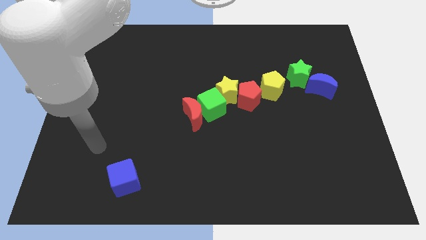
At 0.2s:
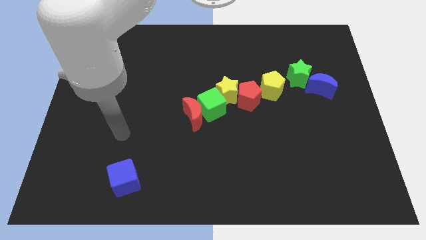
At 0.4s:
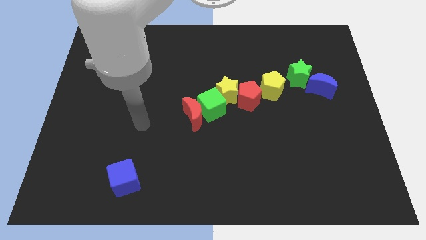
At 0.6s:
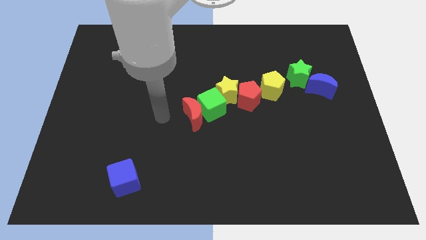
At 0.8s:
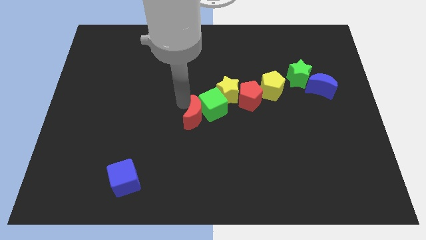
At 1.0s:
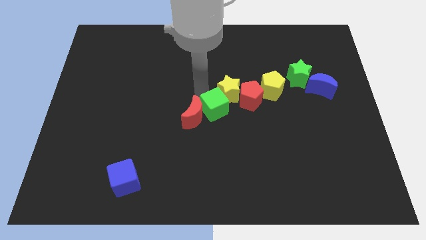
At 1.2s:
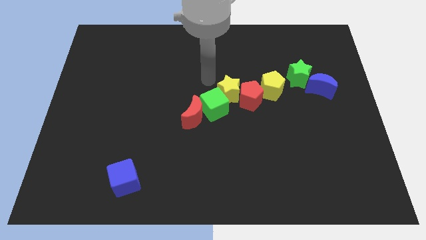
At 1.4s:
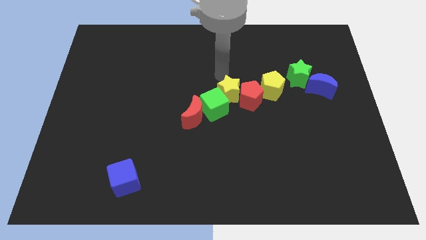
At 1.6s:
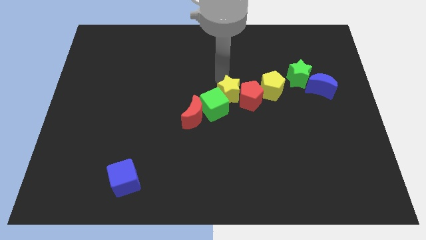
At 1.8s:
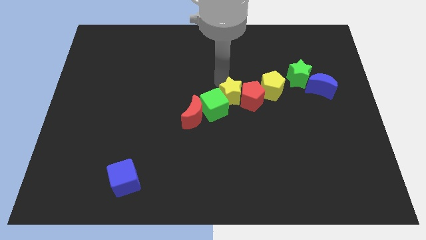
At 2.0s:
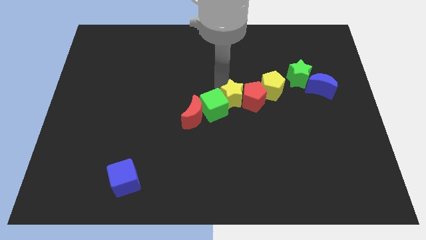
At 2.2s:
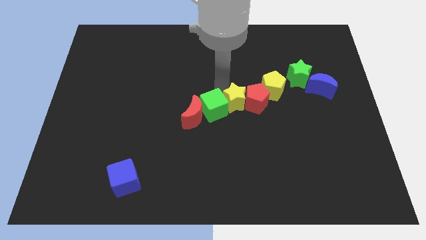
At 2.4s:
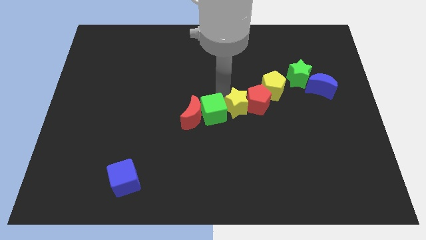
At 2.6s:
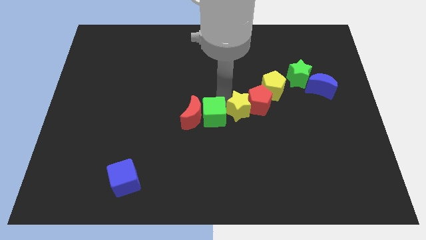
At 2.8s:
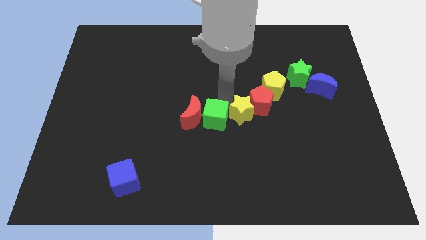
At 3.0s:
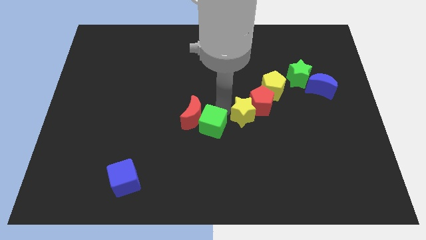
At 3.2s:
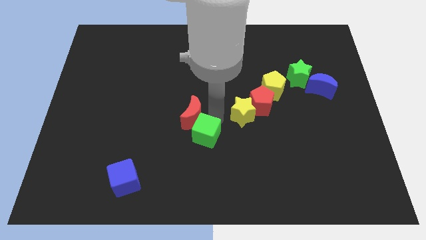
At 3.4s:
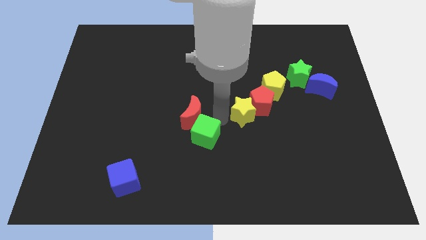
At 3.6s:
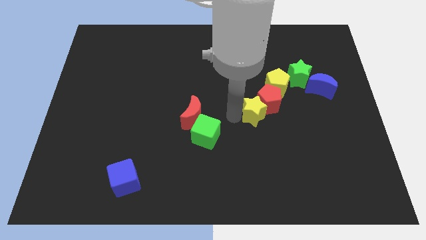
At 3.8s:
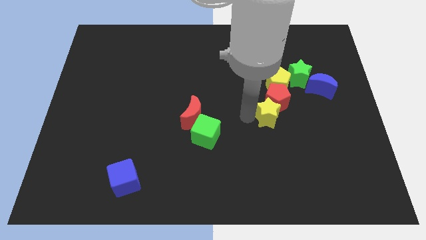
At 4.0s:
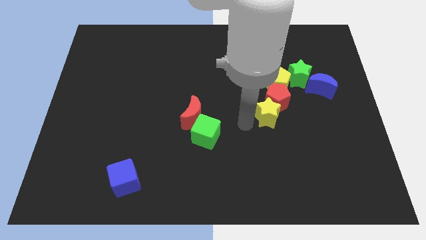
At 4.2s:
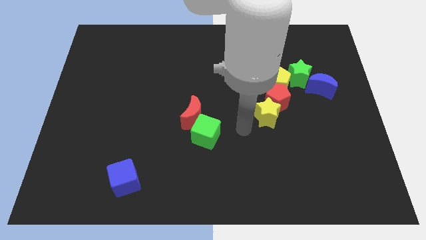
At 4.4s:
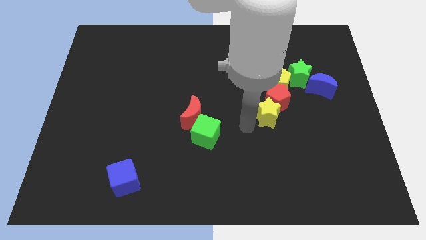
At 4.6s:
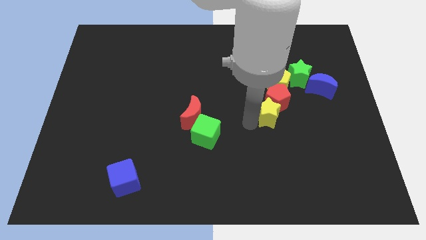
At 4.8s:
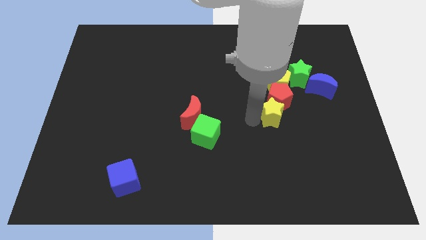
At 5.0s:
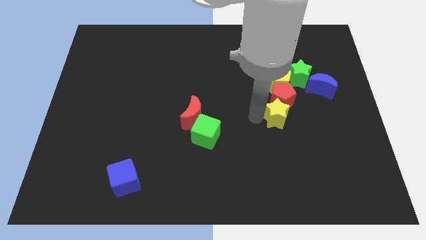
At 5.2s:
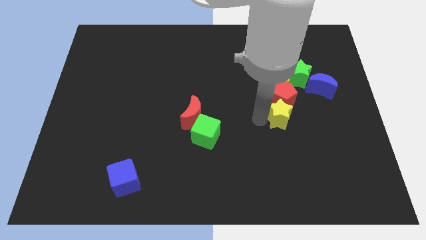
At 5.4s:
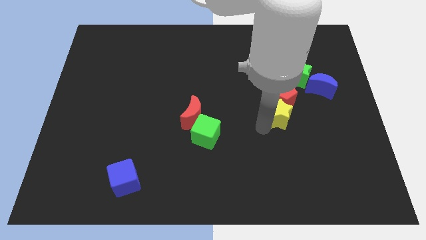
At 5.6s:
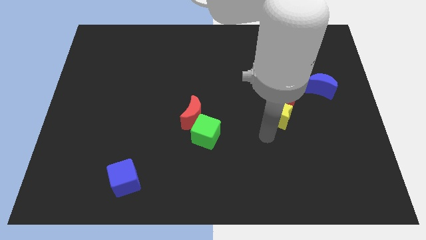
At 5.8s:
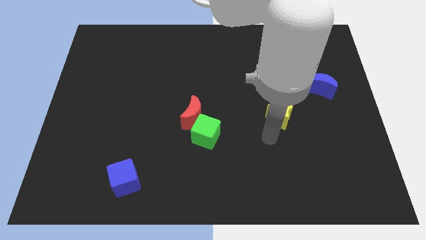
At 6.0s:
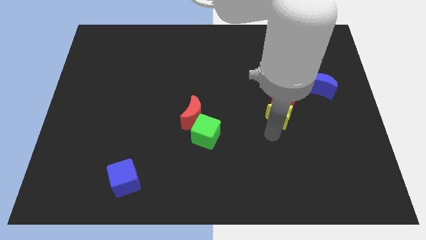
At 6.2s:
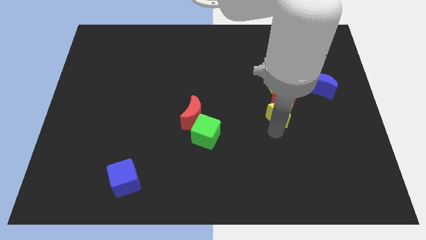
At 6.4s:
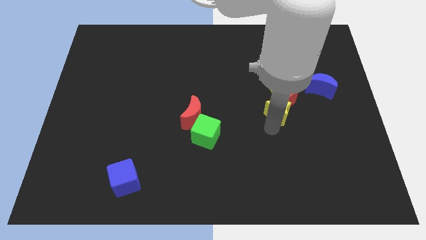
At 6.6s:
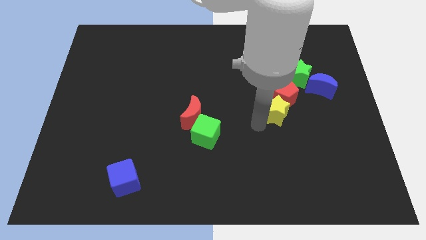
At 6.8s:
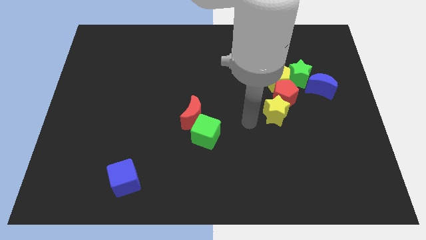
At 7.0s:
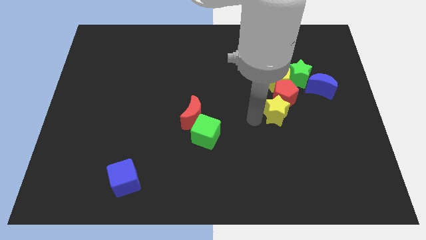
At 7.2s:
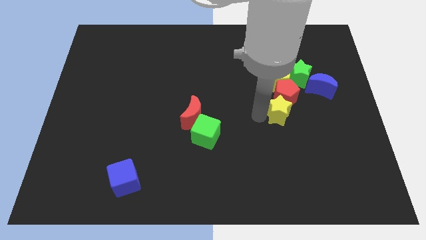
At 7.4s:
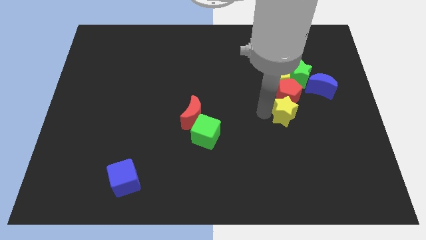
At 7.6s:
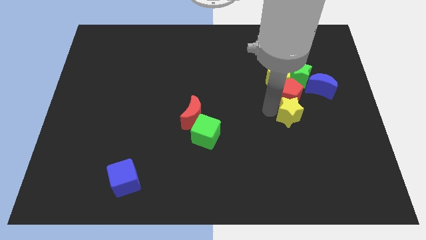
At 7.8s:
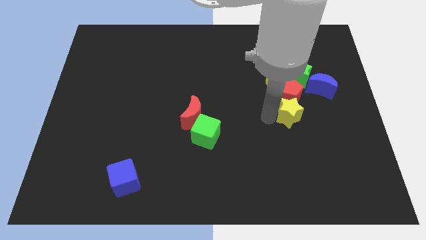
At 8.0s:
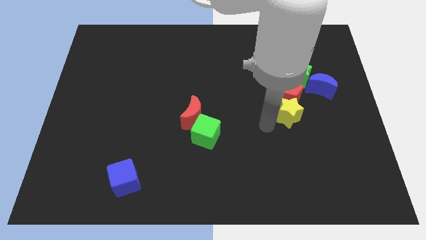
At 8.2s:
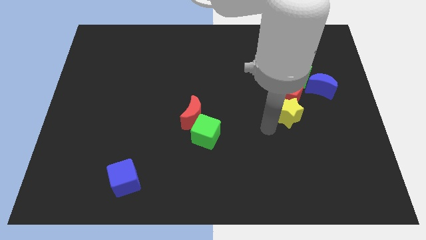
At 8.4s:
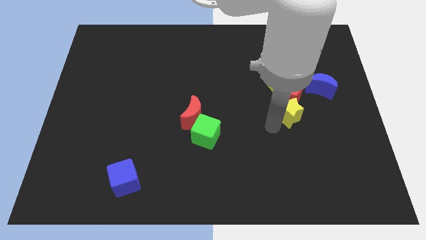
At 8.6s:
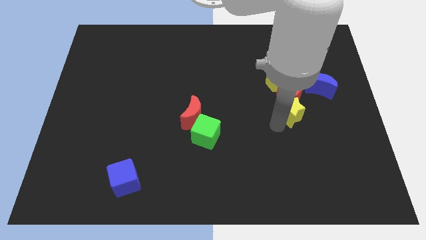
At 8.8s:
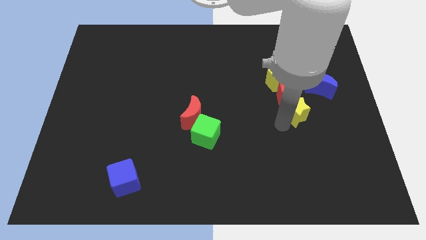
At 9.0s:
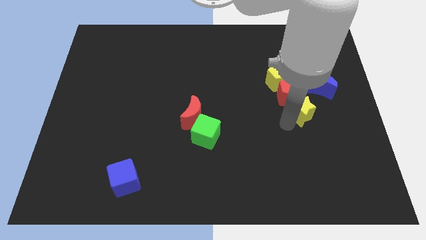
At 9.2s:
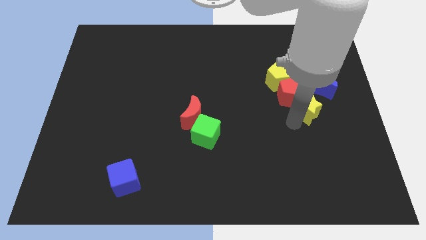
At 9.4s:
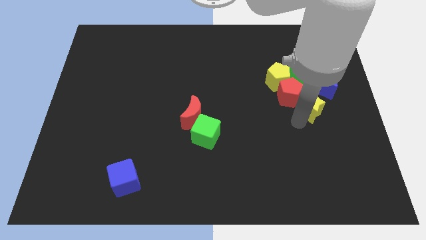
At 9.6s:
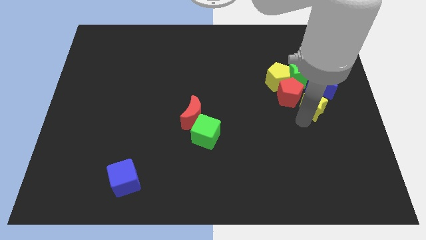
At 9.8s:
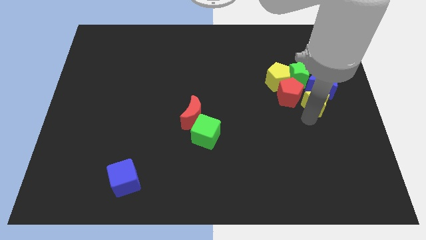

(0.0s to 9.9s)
slide the yellow star to the bottom right side of the green star

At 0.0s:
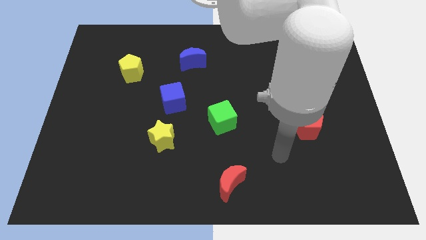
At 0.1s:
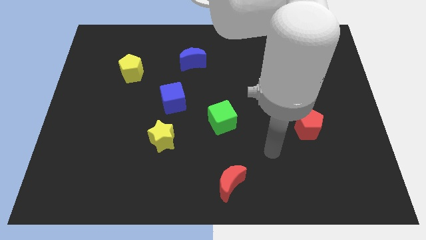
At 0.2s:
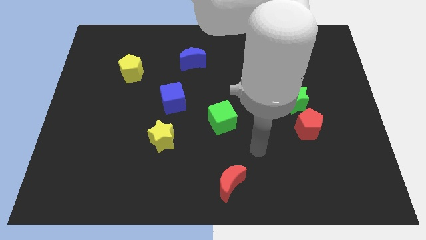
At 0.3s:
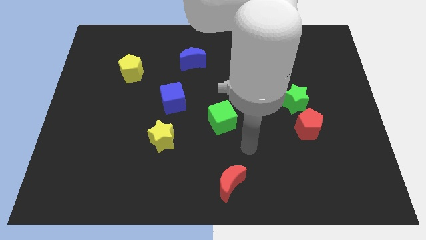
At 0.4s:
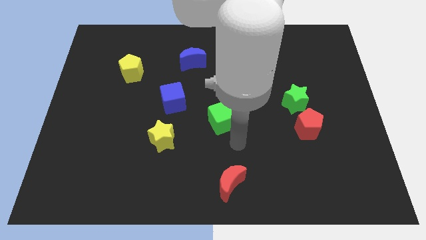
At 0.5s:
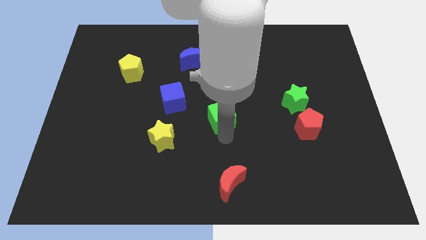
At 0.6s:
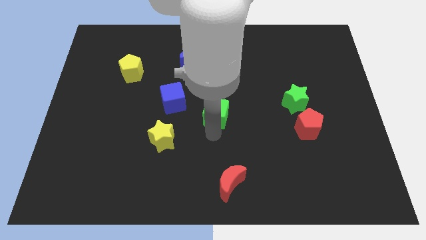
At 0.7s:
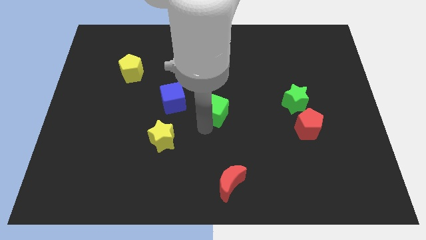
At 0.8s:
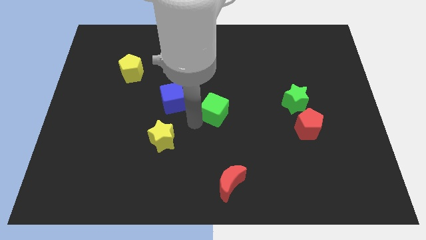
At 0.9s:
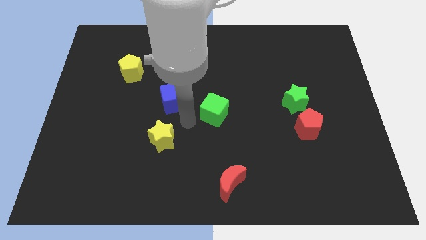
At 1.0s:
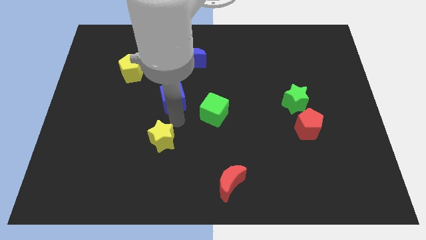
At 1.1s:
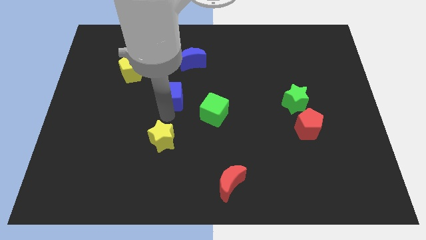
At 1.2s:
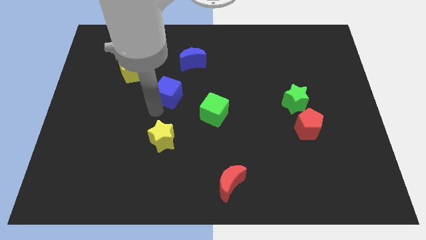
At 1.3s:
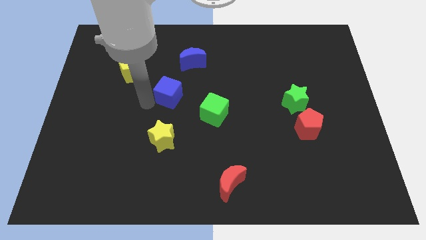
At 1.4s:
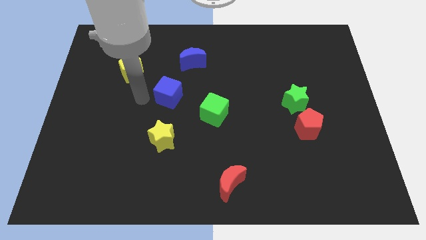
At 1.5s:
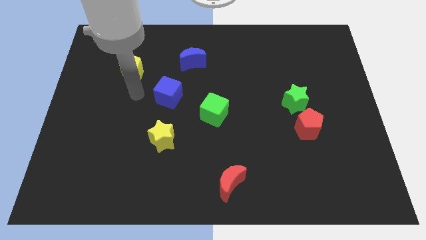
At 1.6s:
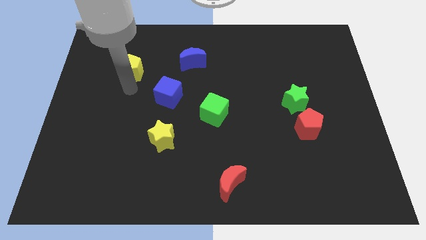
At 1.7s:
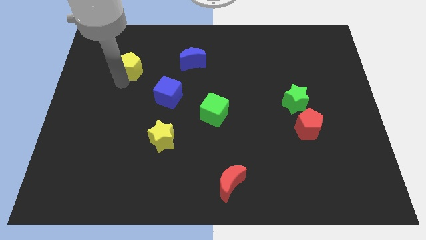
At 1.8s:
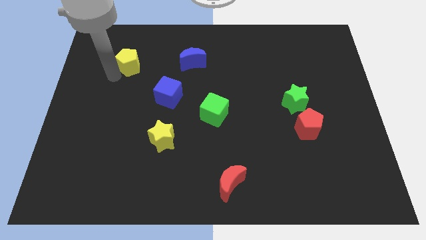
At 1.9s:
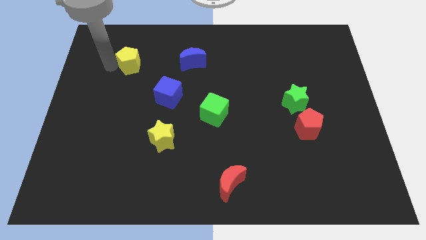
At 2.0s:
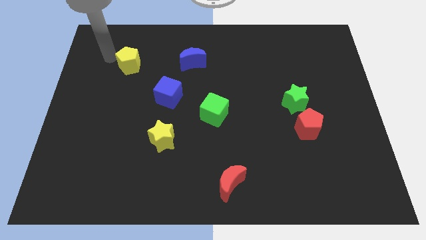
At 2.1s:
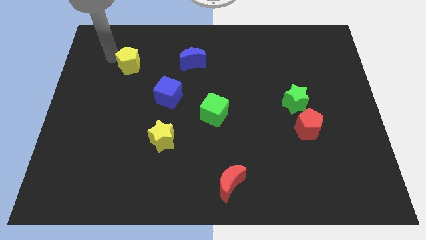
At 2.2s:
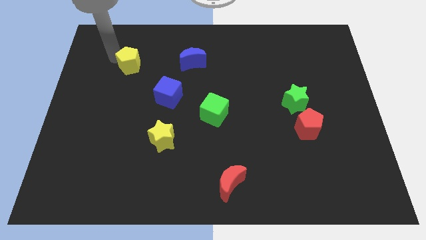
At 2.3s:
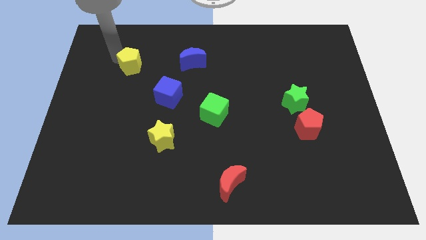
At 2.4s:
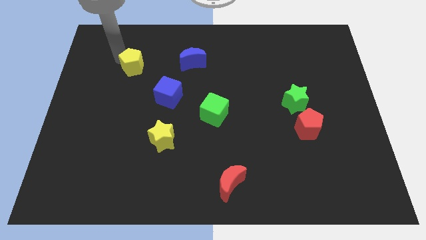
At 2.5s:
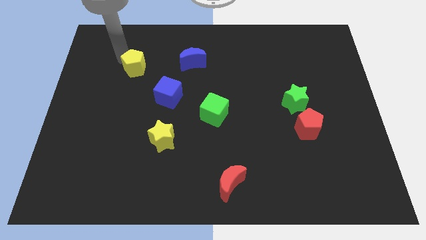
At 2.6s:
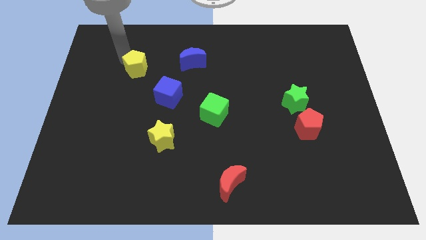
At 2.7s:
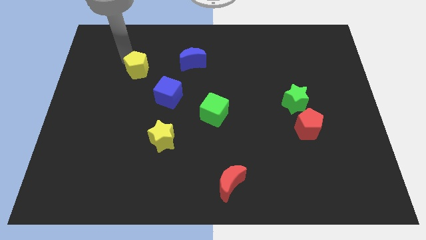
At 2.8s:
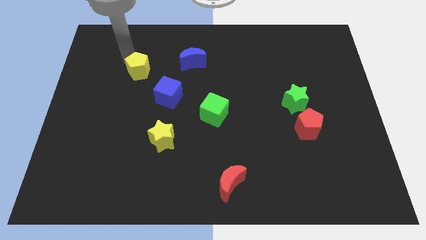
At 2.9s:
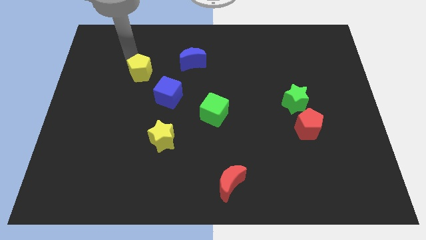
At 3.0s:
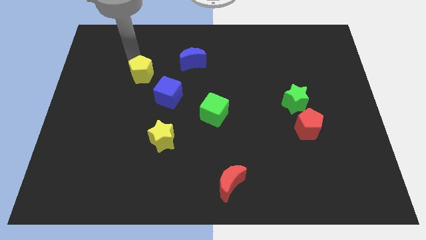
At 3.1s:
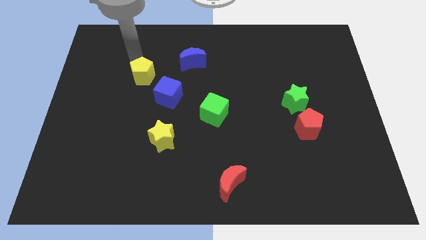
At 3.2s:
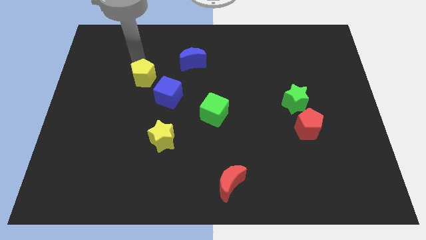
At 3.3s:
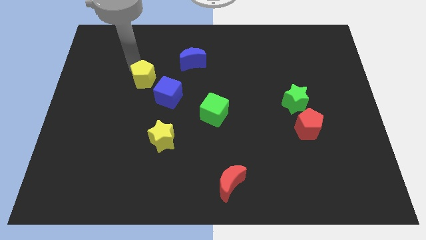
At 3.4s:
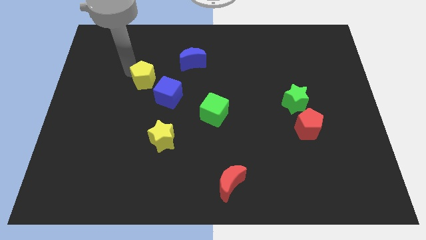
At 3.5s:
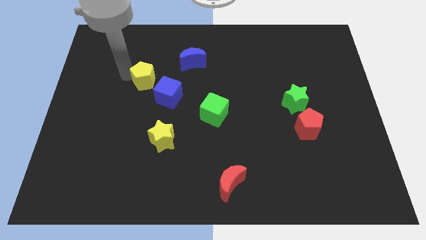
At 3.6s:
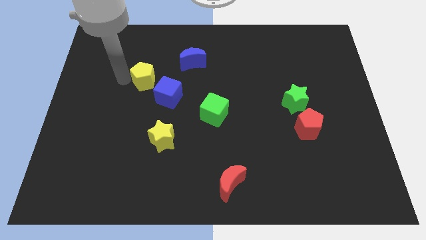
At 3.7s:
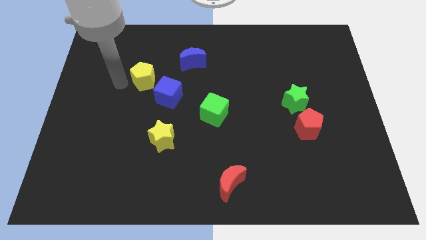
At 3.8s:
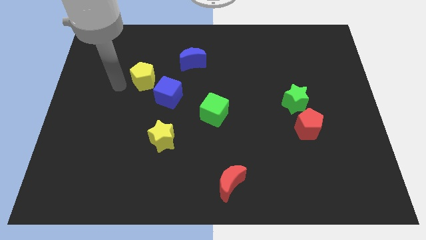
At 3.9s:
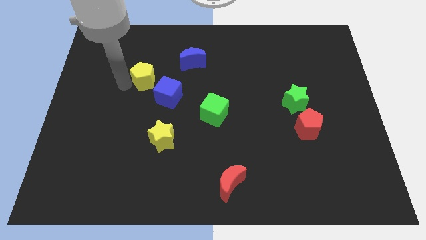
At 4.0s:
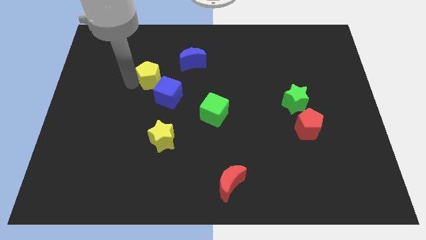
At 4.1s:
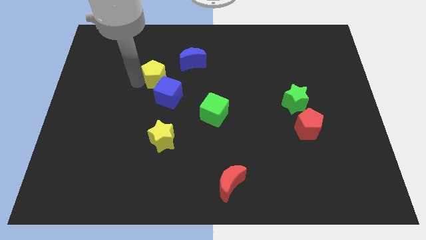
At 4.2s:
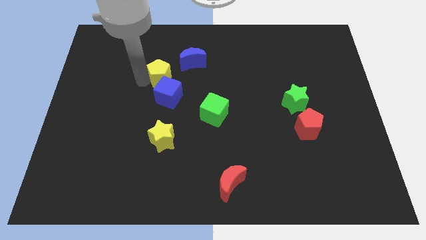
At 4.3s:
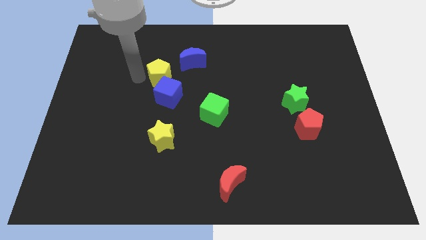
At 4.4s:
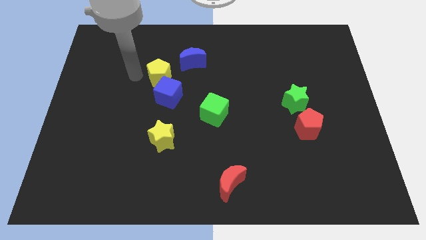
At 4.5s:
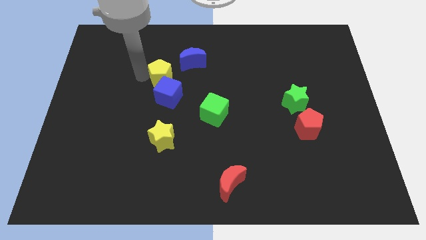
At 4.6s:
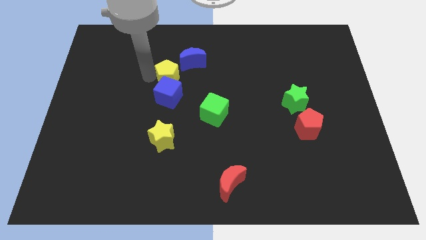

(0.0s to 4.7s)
move the yellow pentagon to the top right of the blue cube
